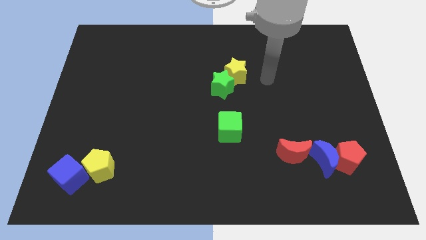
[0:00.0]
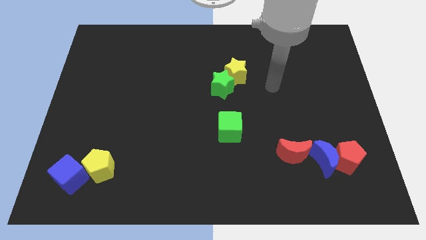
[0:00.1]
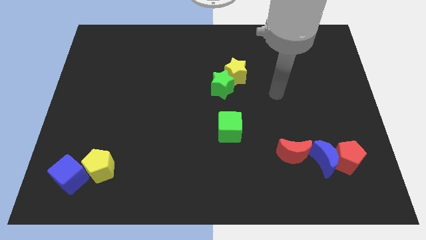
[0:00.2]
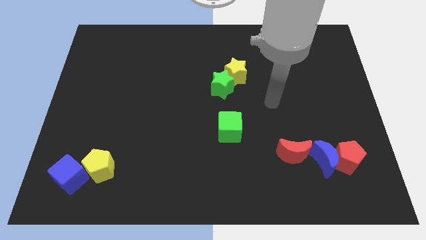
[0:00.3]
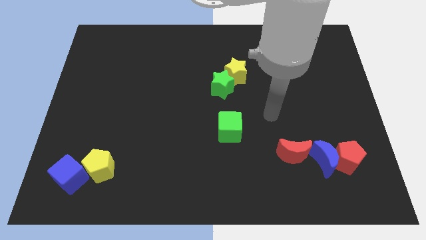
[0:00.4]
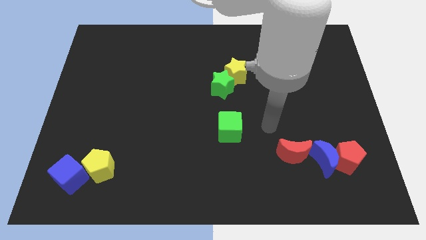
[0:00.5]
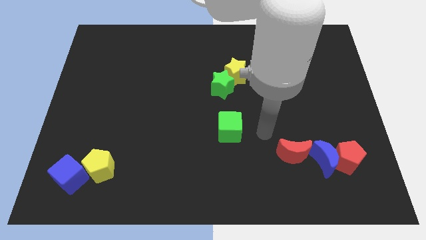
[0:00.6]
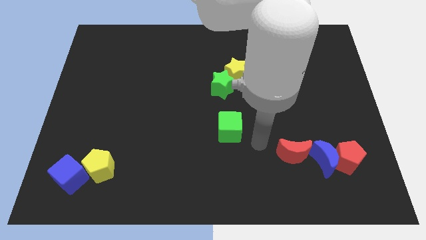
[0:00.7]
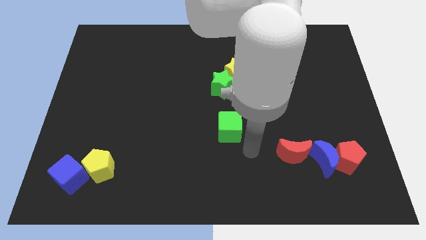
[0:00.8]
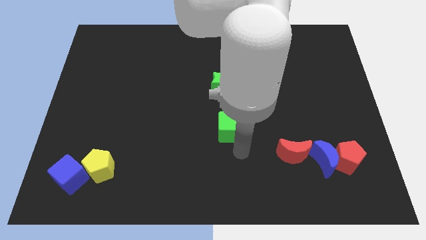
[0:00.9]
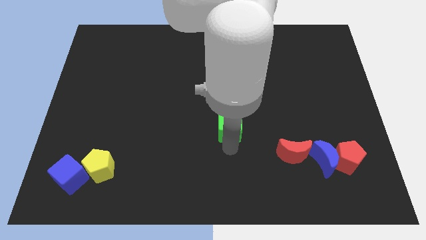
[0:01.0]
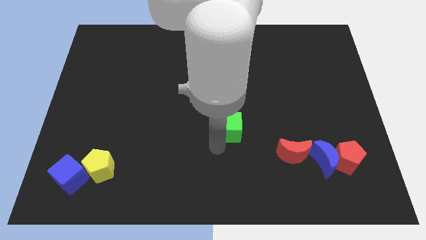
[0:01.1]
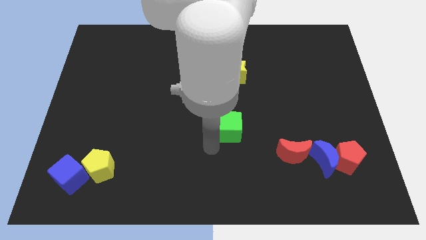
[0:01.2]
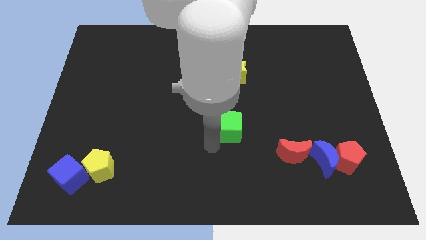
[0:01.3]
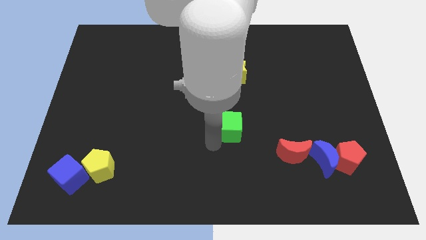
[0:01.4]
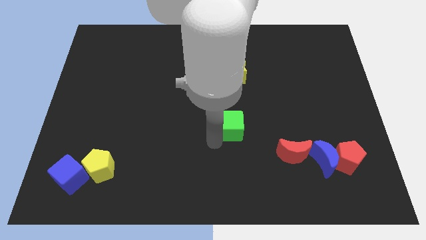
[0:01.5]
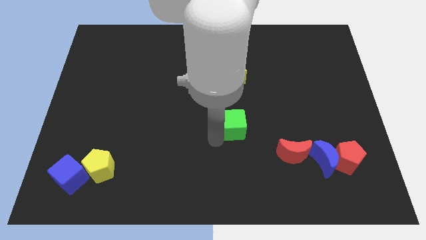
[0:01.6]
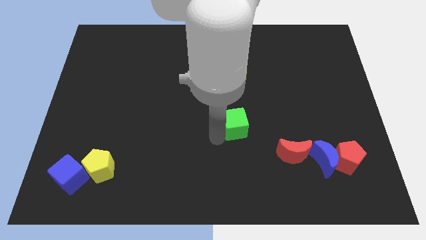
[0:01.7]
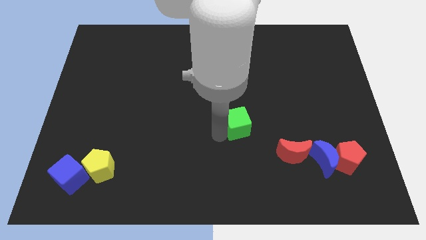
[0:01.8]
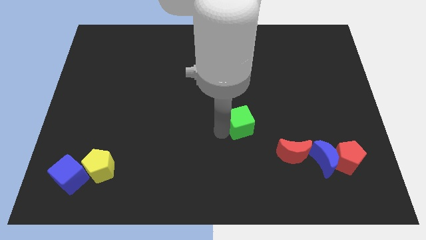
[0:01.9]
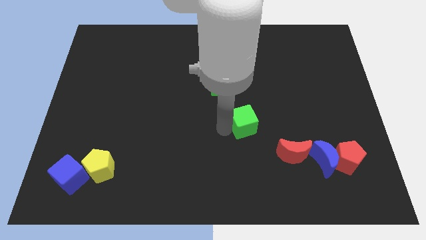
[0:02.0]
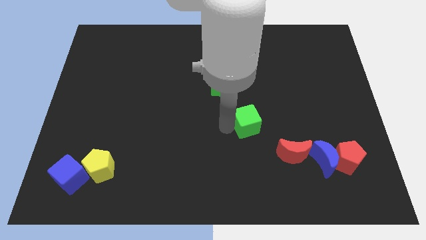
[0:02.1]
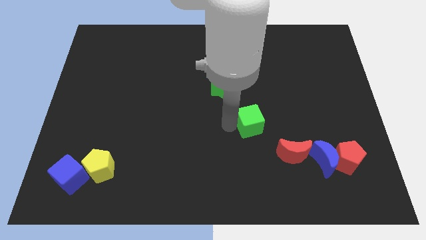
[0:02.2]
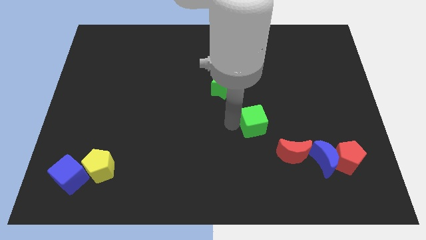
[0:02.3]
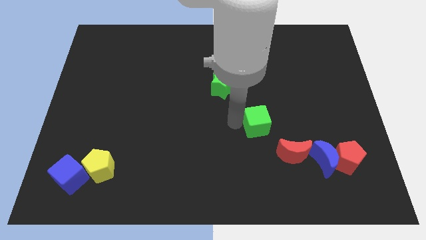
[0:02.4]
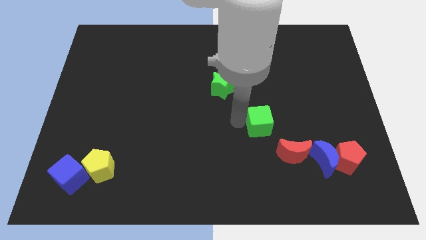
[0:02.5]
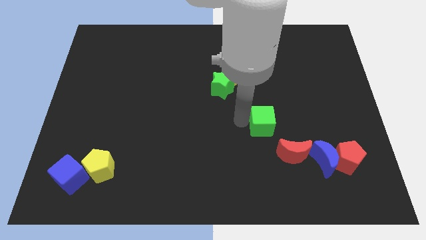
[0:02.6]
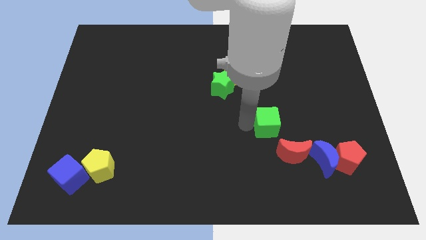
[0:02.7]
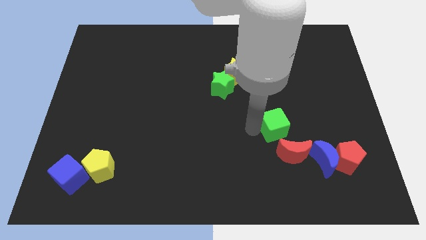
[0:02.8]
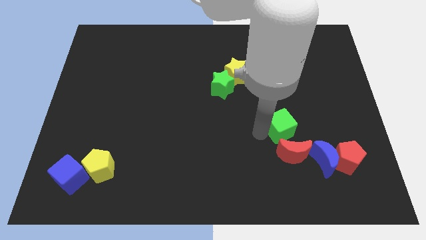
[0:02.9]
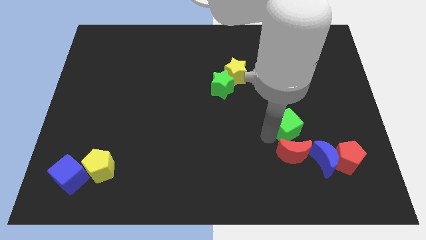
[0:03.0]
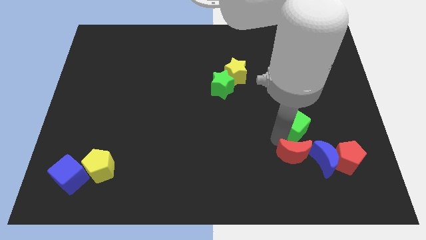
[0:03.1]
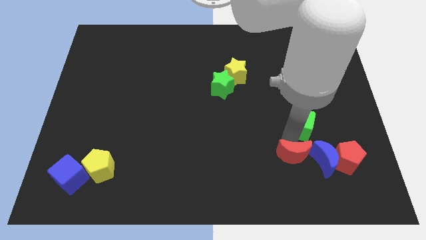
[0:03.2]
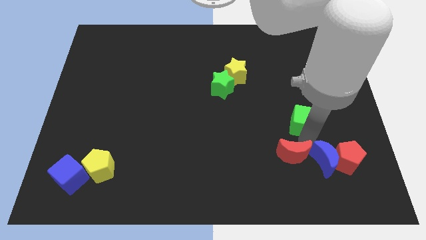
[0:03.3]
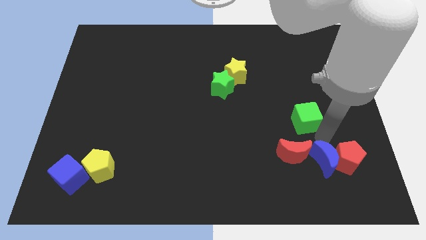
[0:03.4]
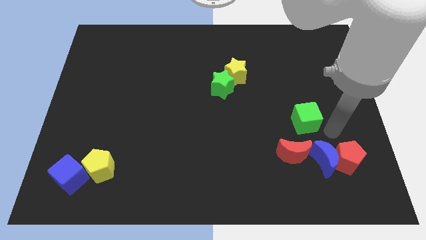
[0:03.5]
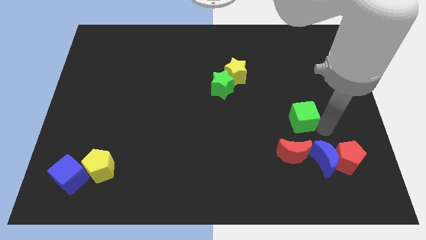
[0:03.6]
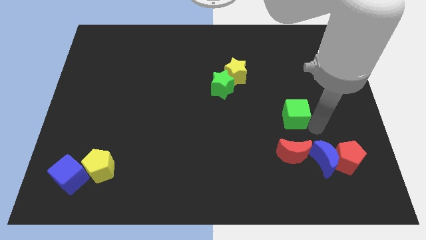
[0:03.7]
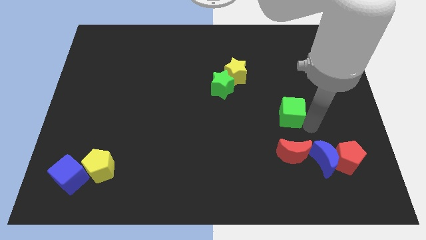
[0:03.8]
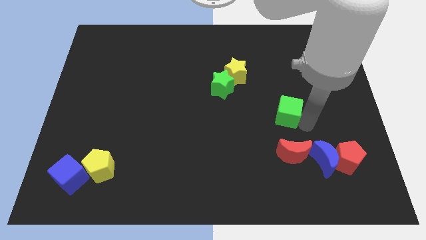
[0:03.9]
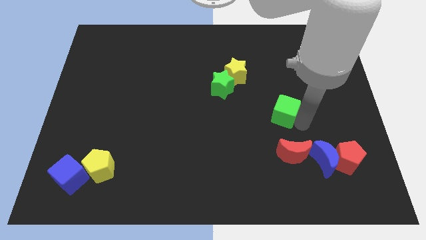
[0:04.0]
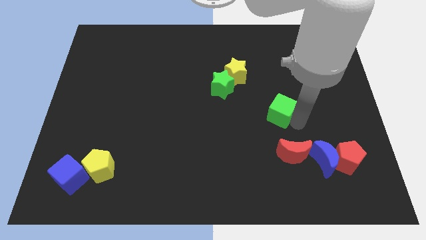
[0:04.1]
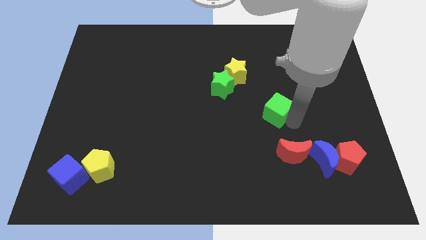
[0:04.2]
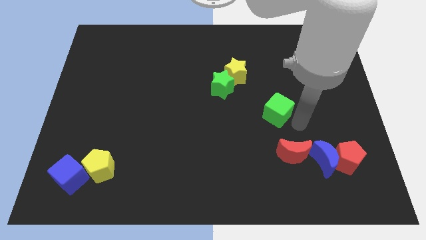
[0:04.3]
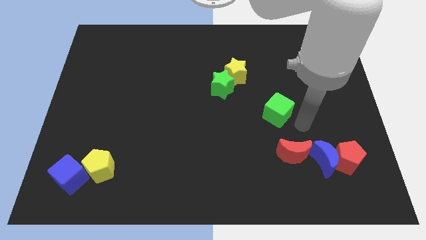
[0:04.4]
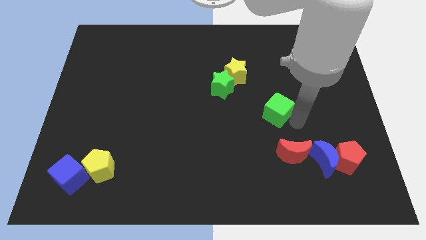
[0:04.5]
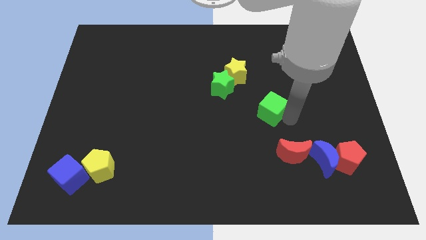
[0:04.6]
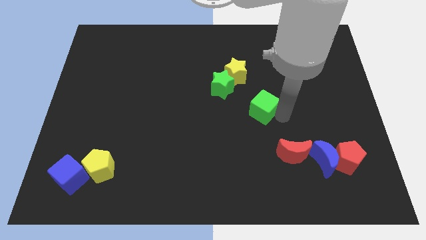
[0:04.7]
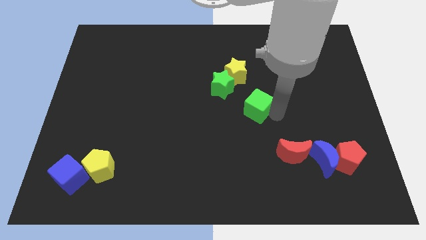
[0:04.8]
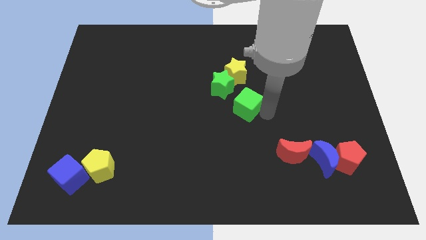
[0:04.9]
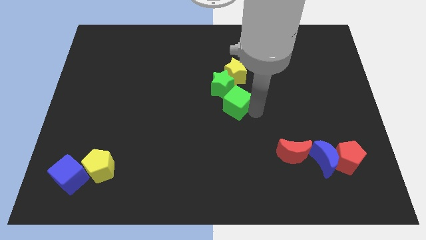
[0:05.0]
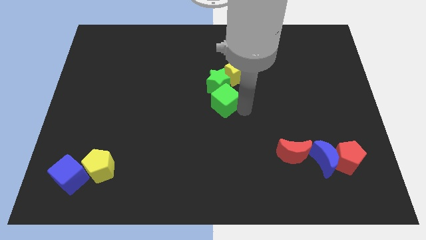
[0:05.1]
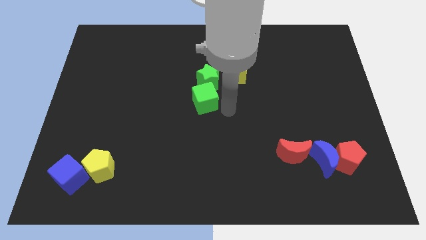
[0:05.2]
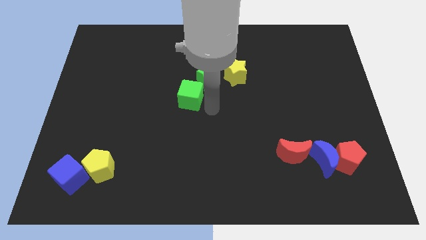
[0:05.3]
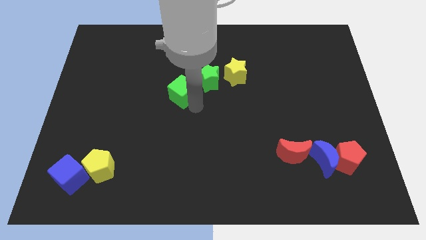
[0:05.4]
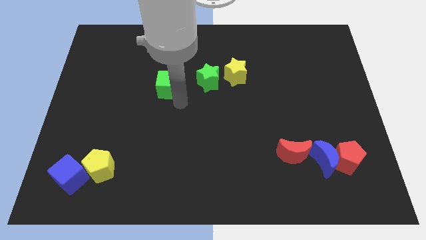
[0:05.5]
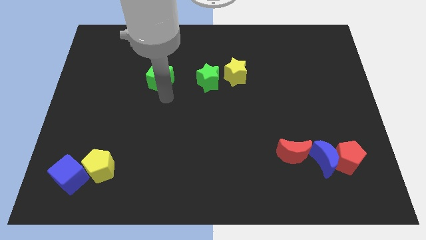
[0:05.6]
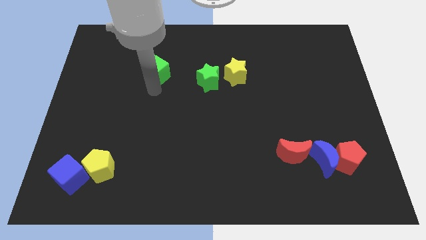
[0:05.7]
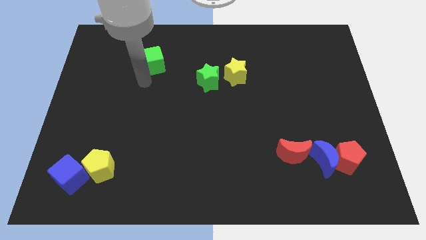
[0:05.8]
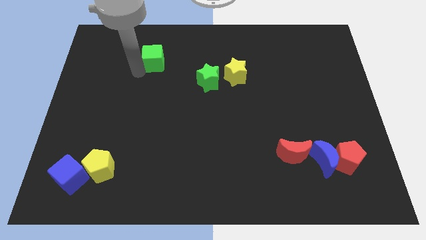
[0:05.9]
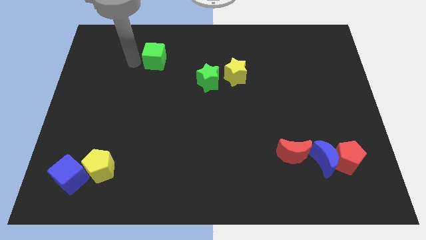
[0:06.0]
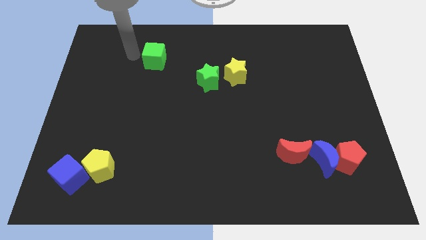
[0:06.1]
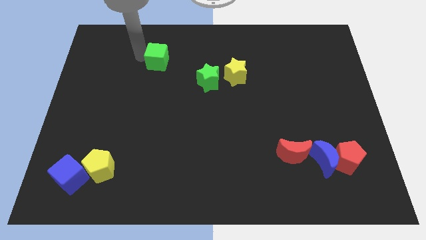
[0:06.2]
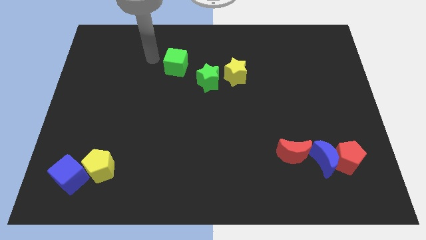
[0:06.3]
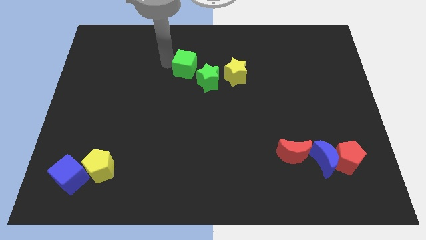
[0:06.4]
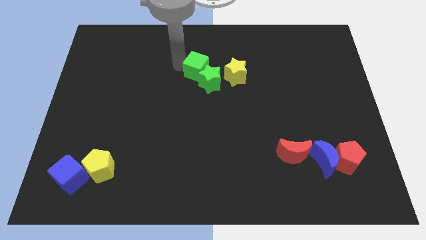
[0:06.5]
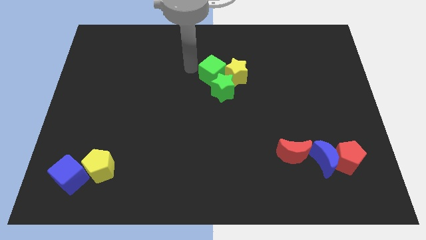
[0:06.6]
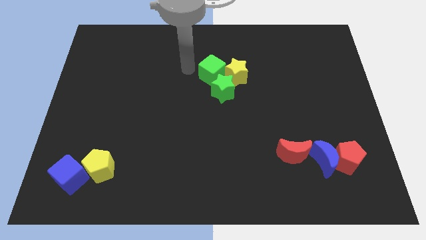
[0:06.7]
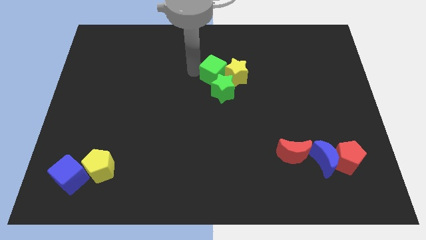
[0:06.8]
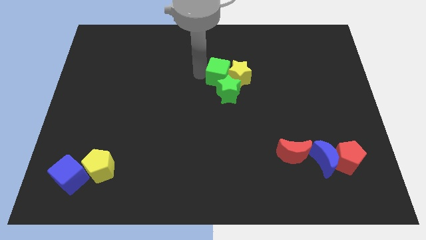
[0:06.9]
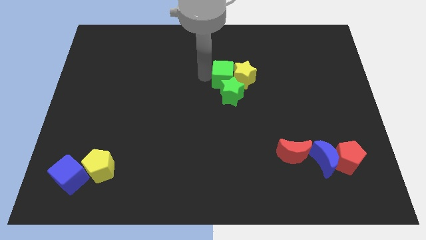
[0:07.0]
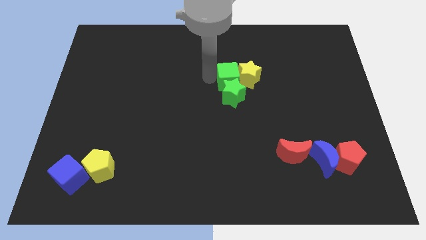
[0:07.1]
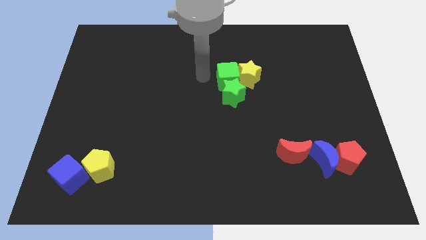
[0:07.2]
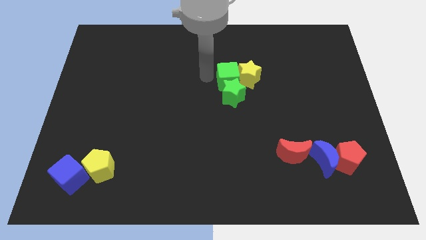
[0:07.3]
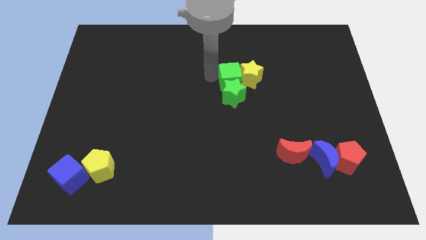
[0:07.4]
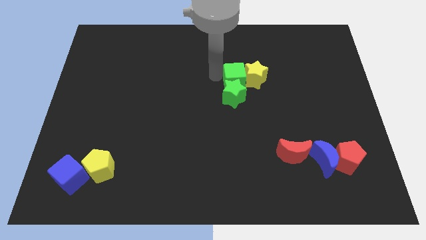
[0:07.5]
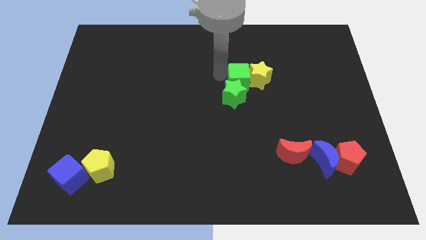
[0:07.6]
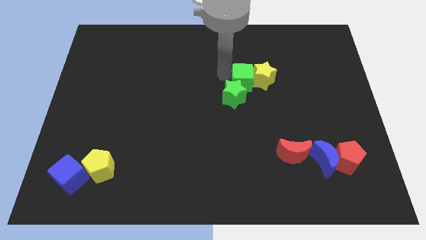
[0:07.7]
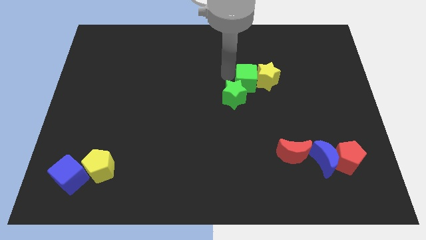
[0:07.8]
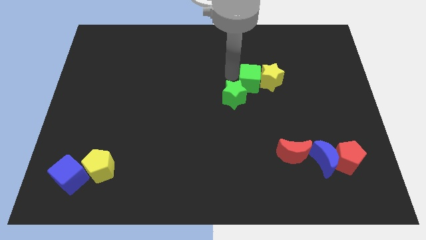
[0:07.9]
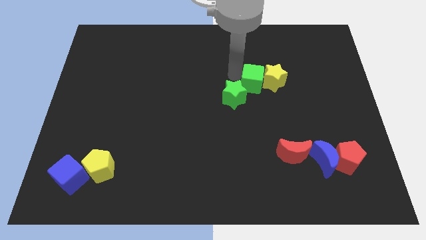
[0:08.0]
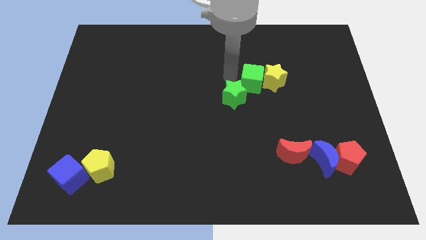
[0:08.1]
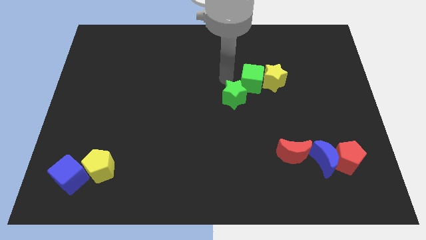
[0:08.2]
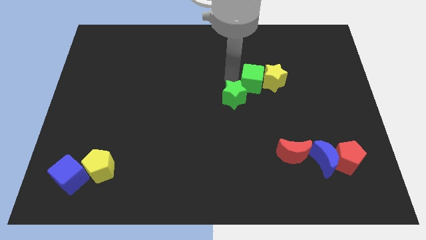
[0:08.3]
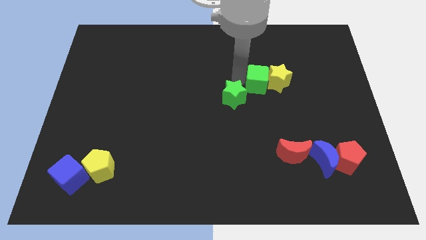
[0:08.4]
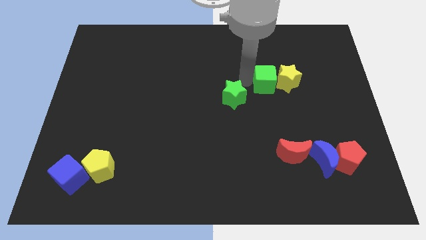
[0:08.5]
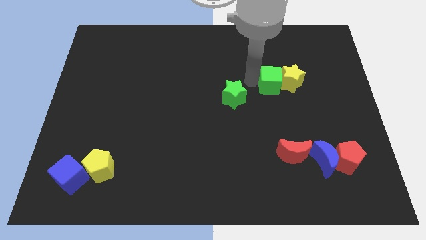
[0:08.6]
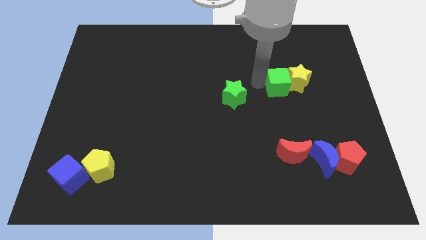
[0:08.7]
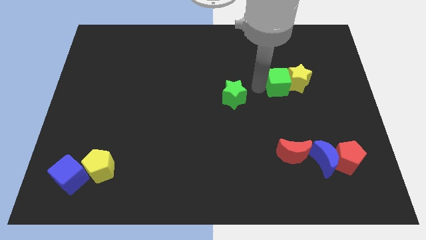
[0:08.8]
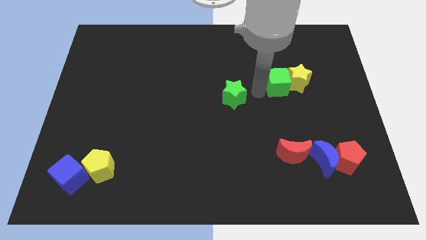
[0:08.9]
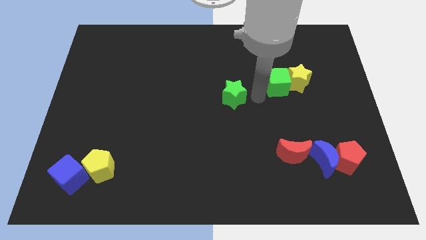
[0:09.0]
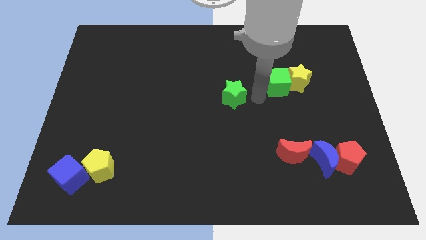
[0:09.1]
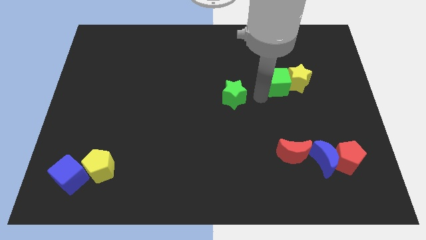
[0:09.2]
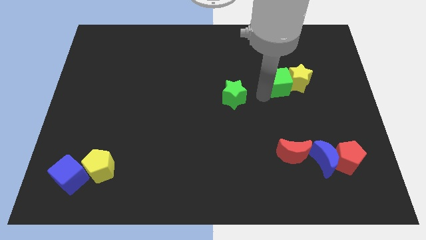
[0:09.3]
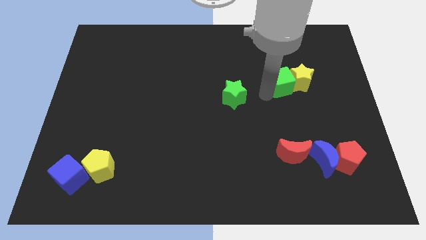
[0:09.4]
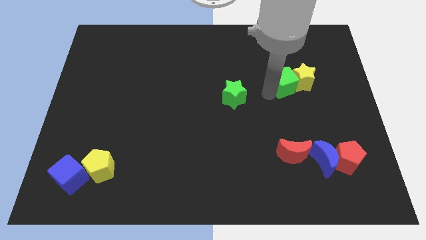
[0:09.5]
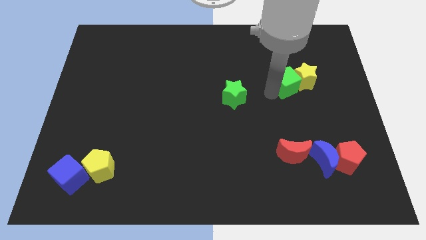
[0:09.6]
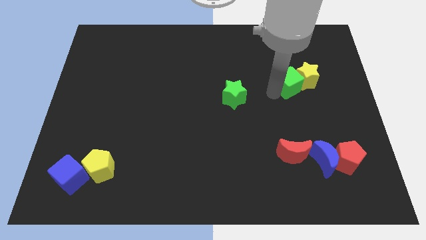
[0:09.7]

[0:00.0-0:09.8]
push the green cube diagonally up and right
